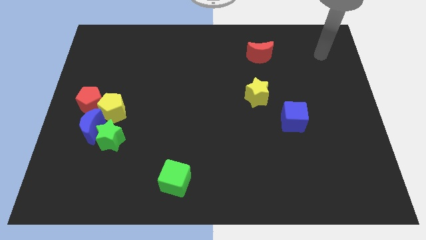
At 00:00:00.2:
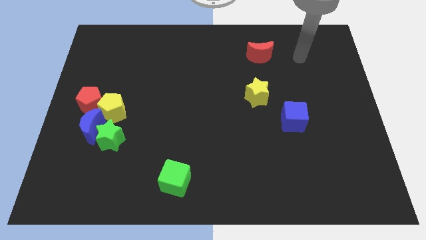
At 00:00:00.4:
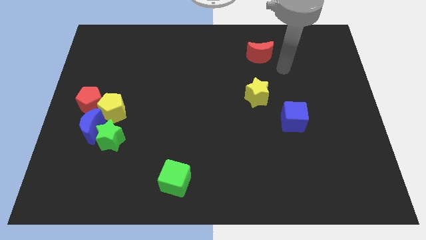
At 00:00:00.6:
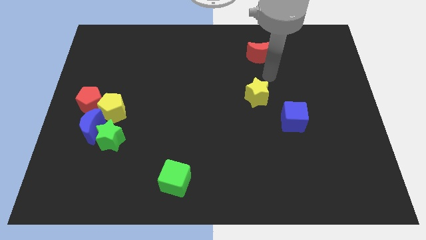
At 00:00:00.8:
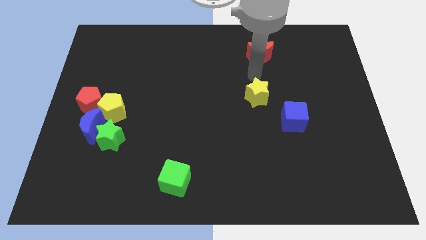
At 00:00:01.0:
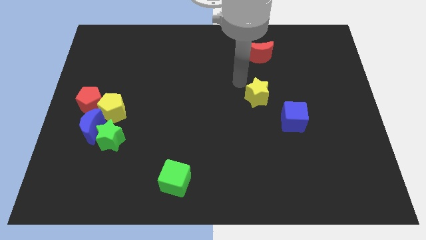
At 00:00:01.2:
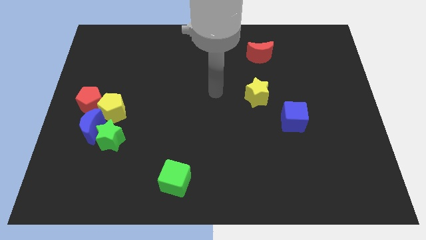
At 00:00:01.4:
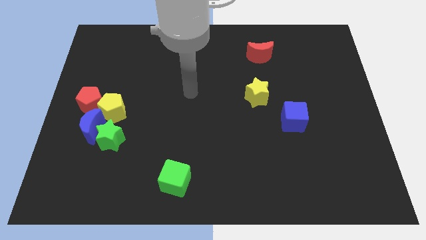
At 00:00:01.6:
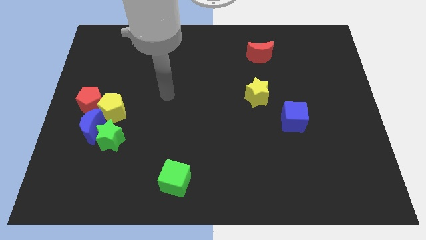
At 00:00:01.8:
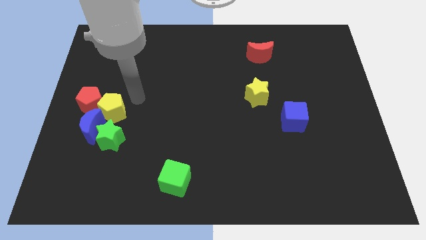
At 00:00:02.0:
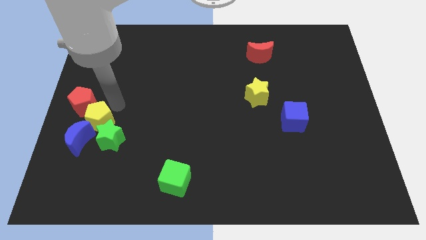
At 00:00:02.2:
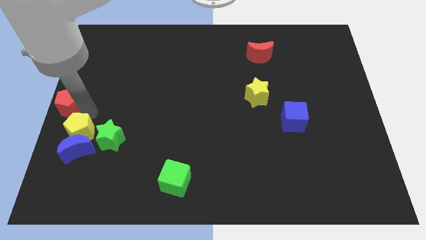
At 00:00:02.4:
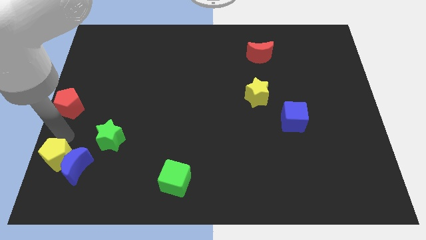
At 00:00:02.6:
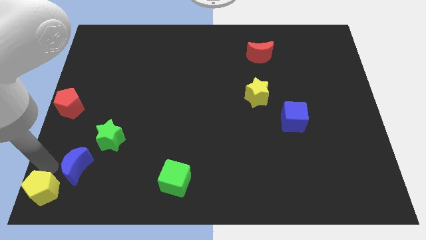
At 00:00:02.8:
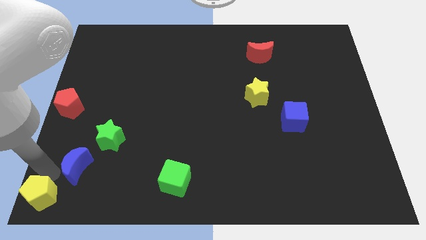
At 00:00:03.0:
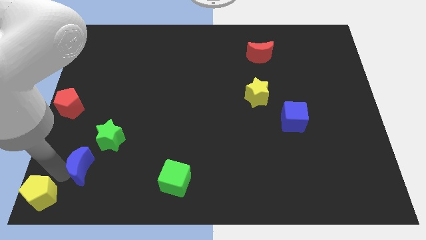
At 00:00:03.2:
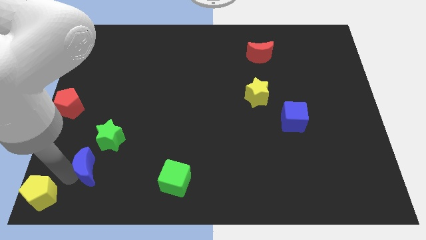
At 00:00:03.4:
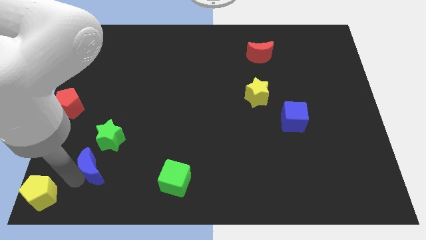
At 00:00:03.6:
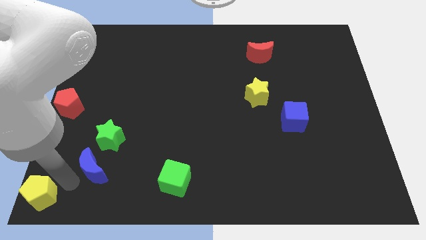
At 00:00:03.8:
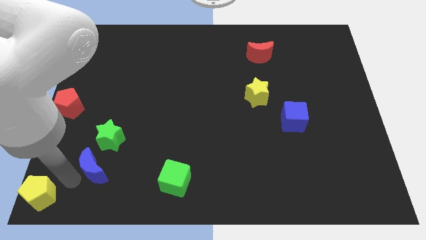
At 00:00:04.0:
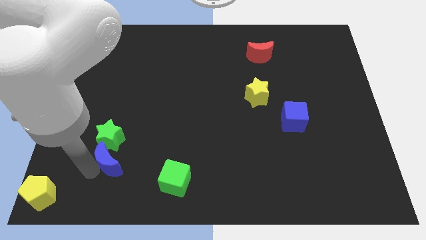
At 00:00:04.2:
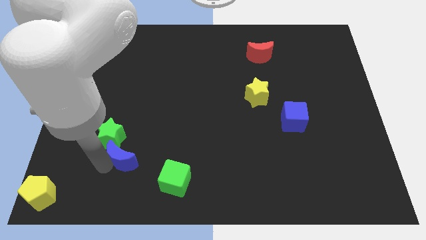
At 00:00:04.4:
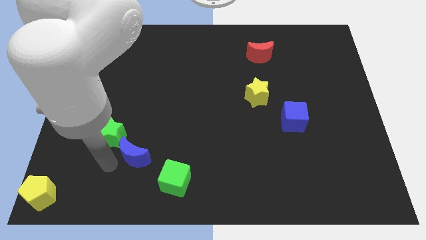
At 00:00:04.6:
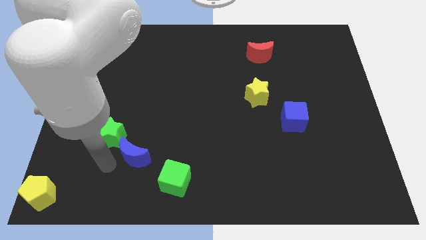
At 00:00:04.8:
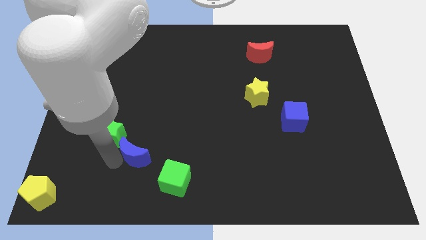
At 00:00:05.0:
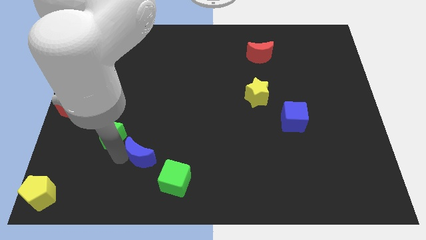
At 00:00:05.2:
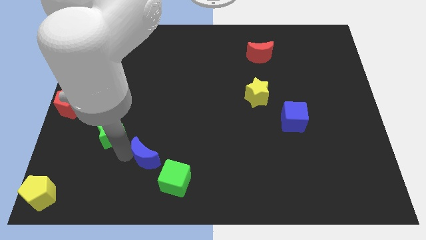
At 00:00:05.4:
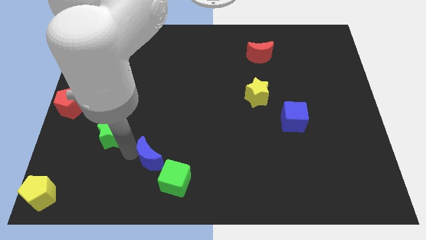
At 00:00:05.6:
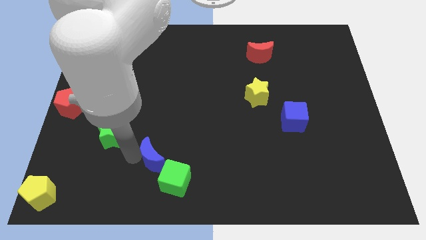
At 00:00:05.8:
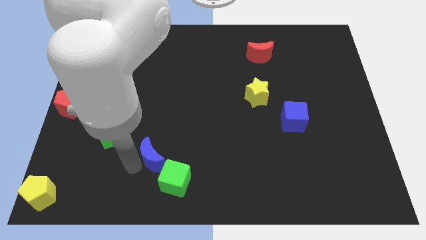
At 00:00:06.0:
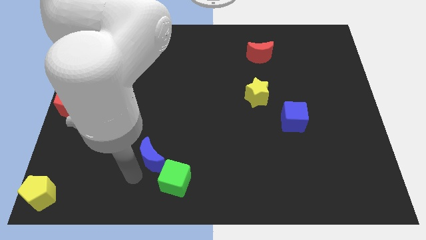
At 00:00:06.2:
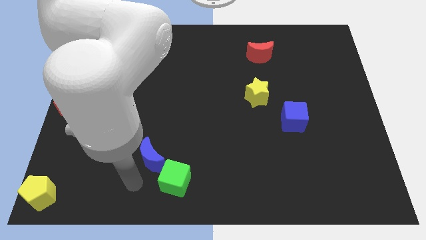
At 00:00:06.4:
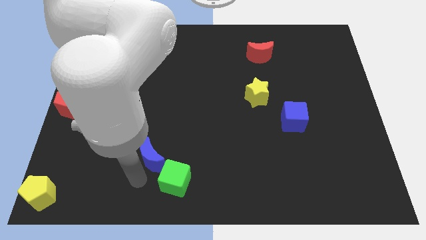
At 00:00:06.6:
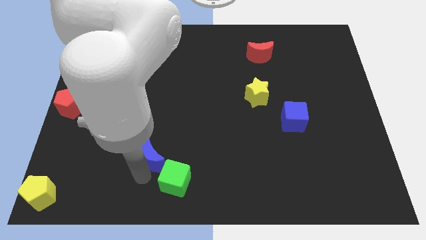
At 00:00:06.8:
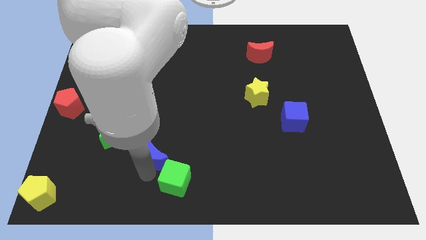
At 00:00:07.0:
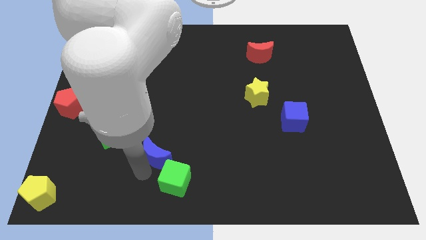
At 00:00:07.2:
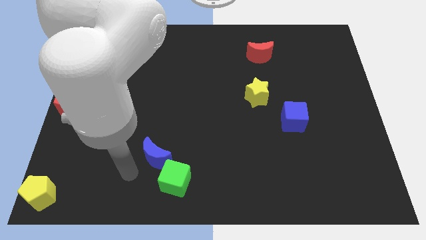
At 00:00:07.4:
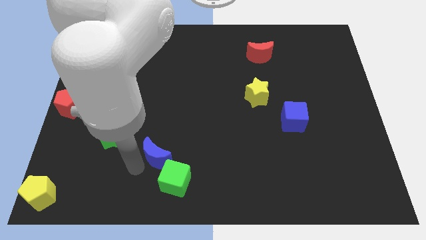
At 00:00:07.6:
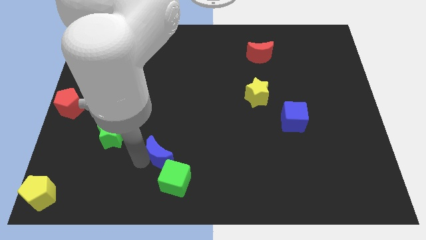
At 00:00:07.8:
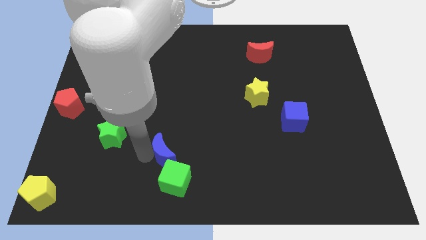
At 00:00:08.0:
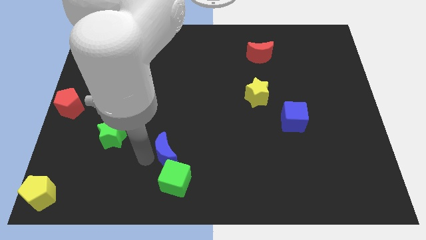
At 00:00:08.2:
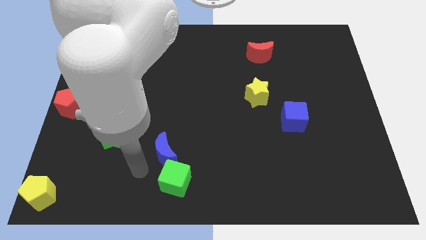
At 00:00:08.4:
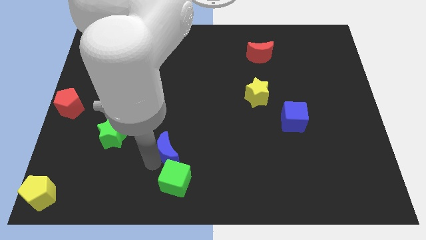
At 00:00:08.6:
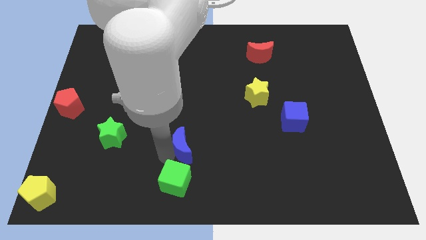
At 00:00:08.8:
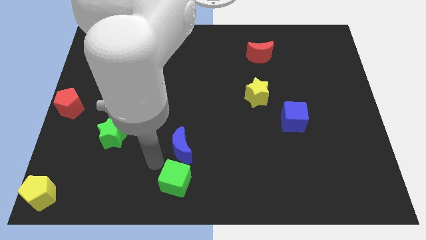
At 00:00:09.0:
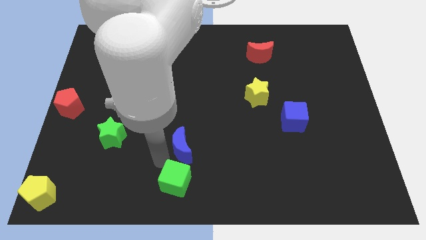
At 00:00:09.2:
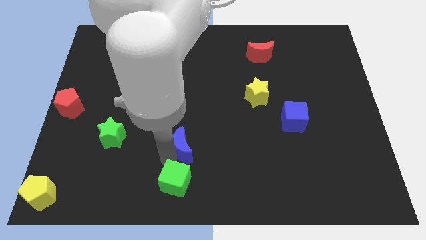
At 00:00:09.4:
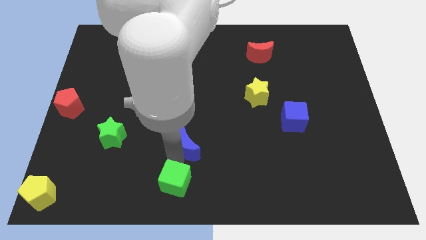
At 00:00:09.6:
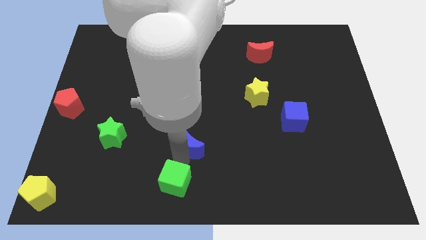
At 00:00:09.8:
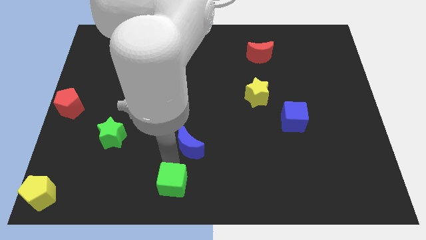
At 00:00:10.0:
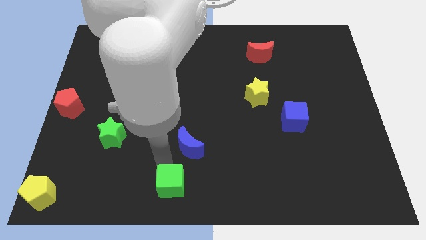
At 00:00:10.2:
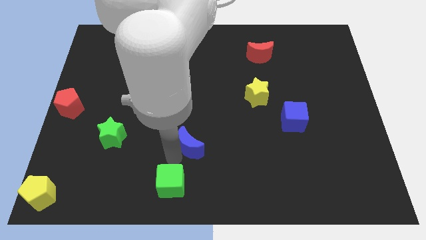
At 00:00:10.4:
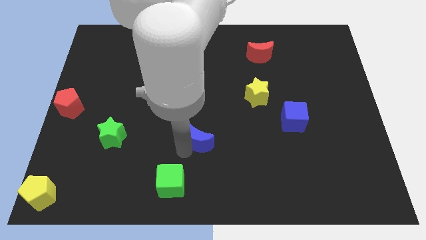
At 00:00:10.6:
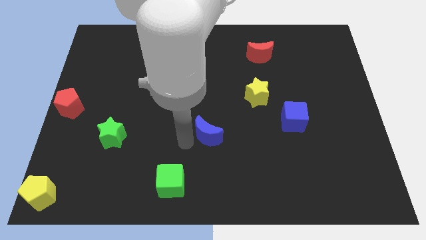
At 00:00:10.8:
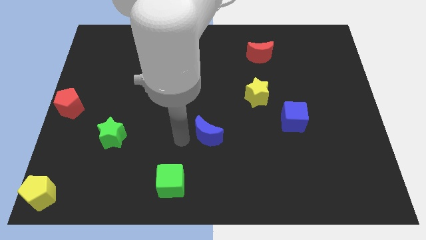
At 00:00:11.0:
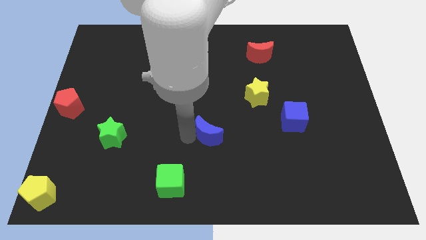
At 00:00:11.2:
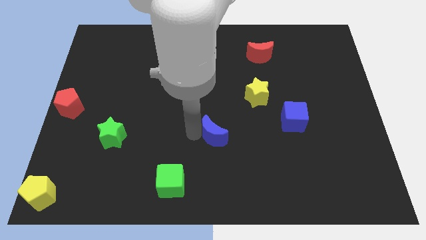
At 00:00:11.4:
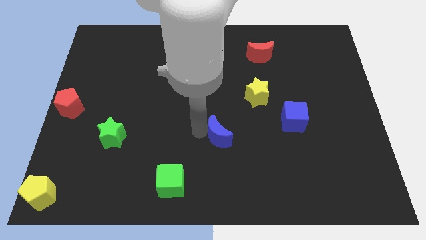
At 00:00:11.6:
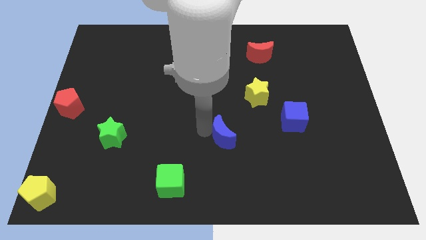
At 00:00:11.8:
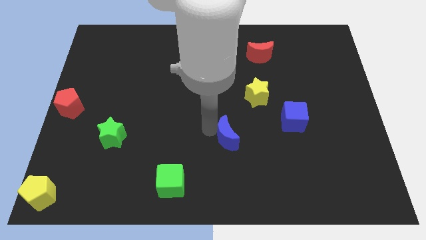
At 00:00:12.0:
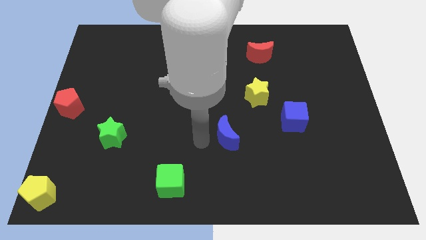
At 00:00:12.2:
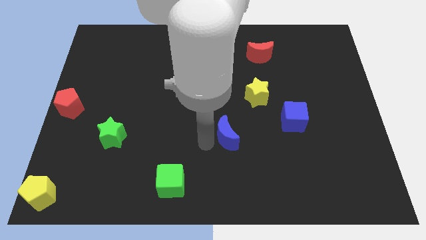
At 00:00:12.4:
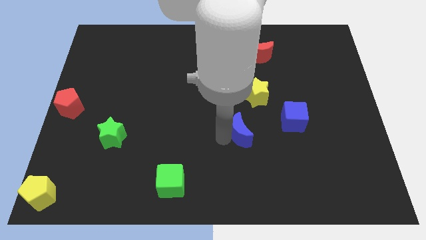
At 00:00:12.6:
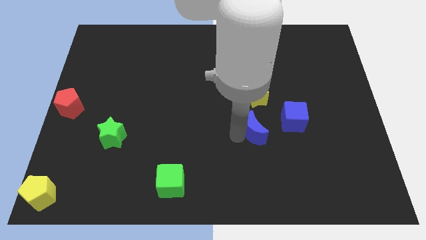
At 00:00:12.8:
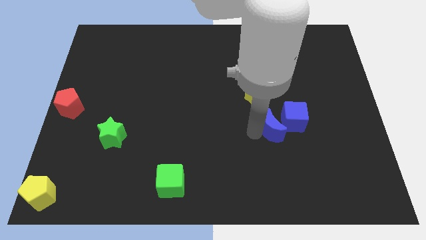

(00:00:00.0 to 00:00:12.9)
move the blue moon close to the blue cube

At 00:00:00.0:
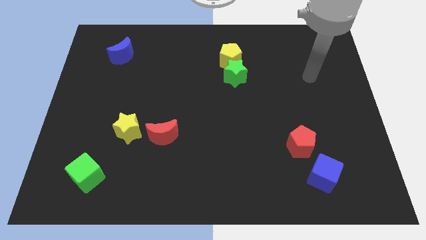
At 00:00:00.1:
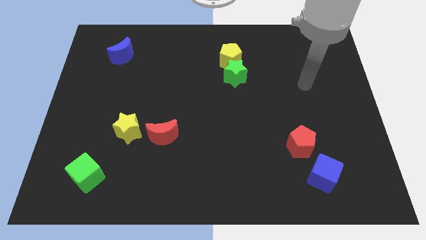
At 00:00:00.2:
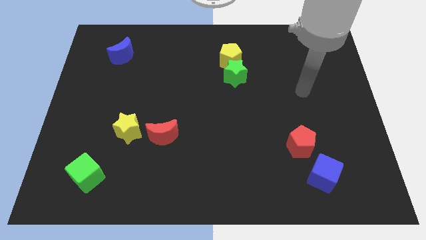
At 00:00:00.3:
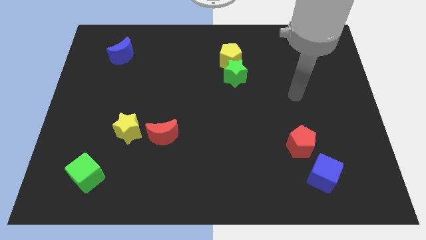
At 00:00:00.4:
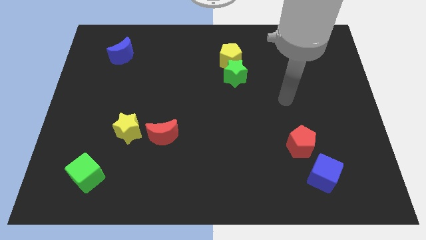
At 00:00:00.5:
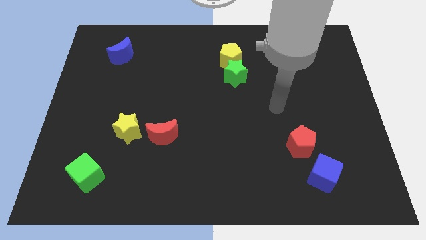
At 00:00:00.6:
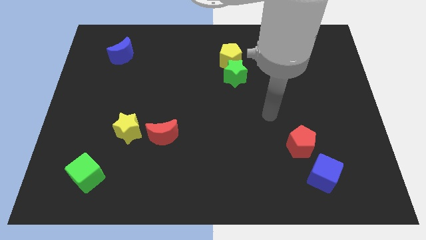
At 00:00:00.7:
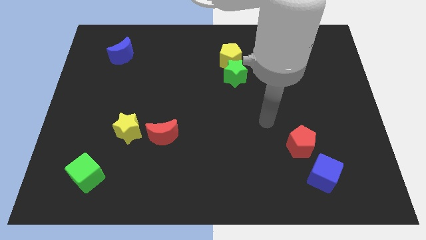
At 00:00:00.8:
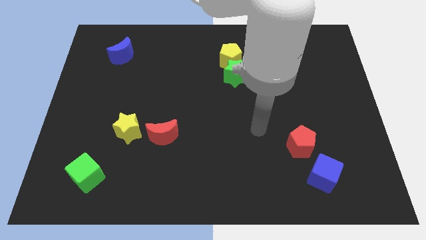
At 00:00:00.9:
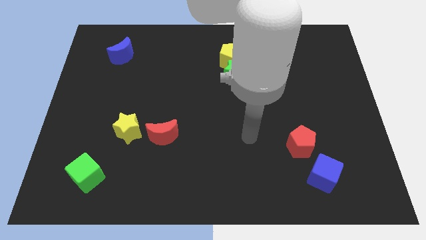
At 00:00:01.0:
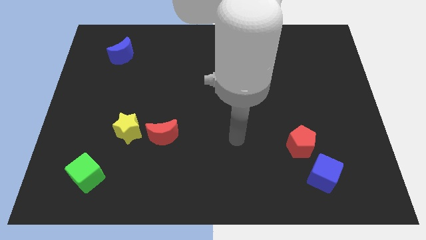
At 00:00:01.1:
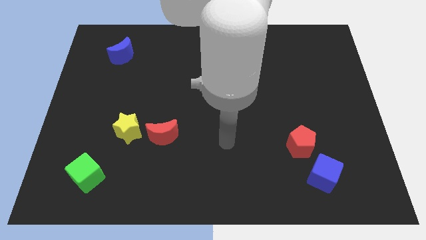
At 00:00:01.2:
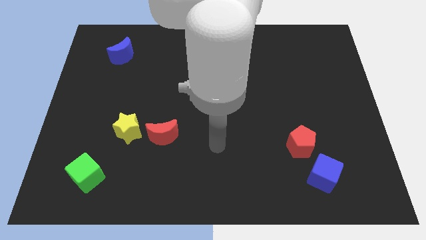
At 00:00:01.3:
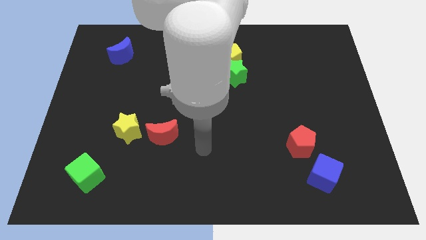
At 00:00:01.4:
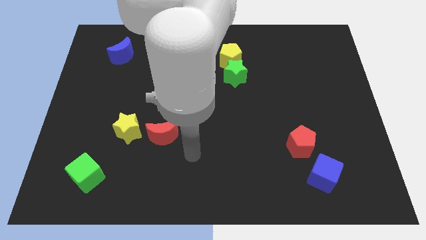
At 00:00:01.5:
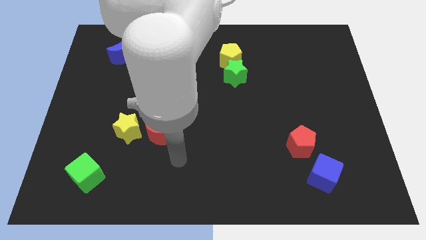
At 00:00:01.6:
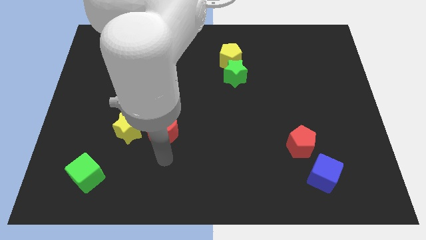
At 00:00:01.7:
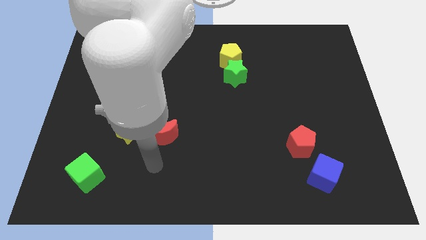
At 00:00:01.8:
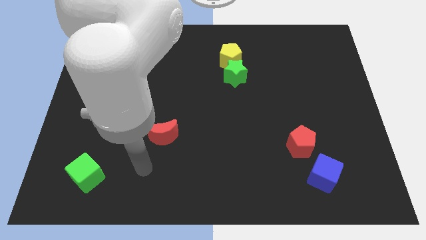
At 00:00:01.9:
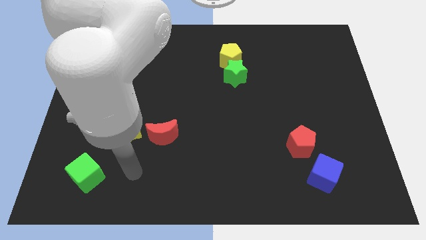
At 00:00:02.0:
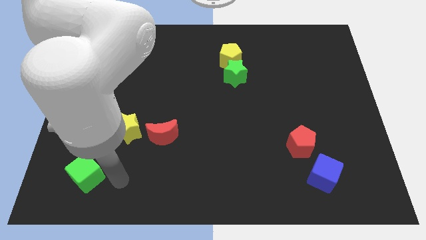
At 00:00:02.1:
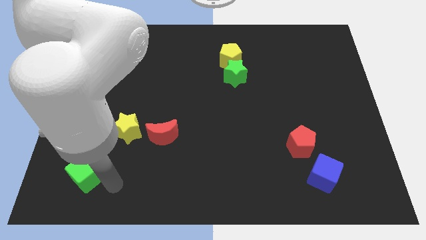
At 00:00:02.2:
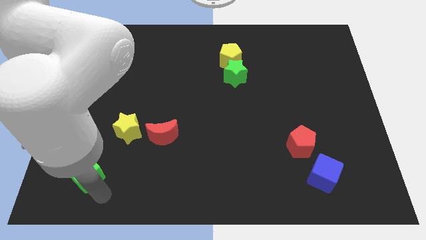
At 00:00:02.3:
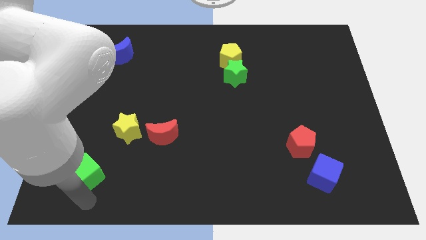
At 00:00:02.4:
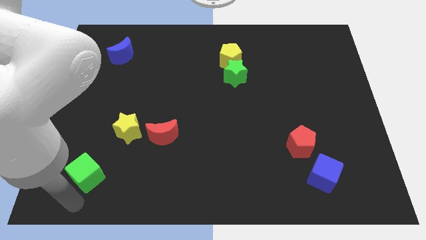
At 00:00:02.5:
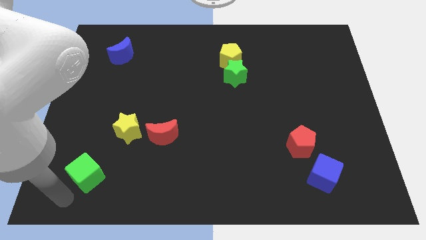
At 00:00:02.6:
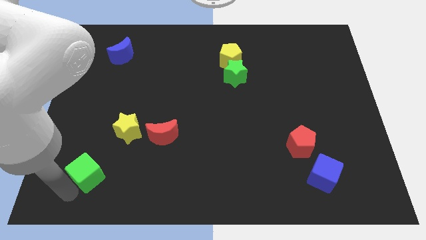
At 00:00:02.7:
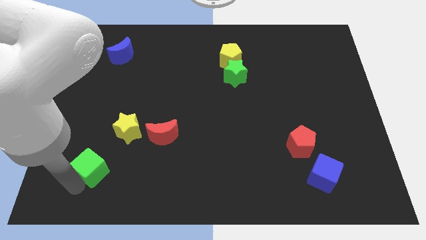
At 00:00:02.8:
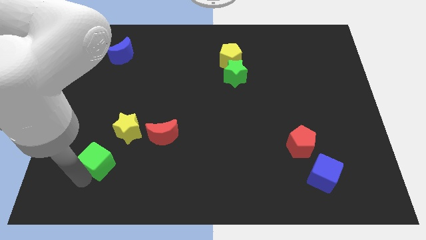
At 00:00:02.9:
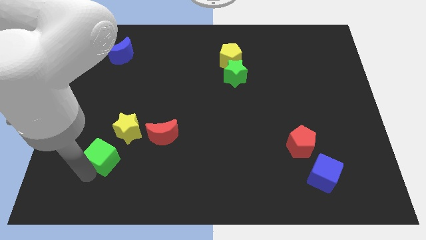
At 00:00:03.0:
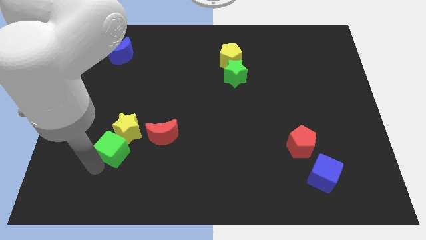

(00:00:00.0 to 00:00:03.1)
put the green cube towards the yellow star
